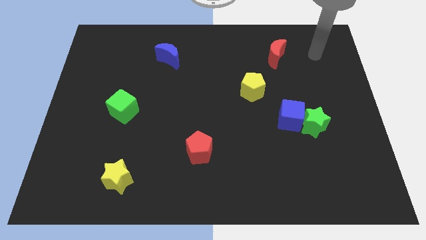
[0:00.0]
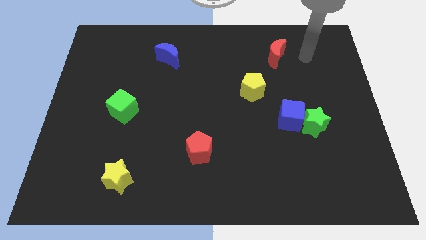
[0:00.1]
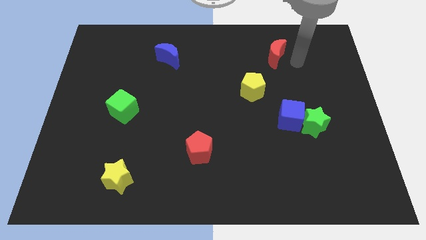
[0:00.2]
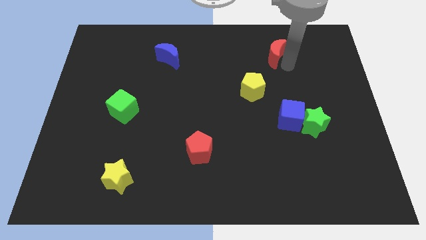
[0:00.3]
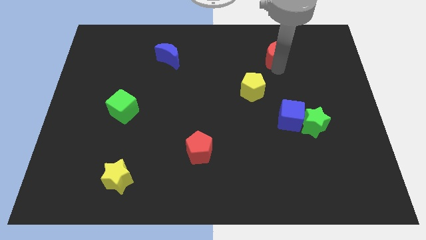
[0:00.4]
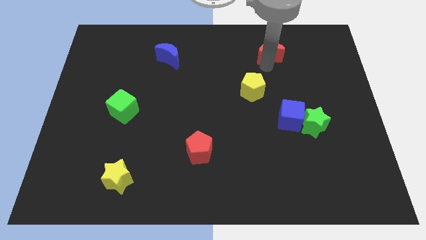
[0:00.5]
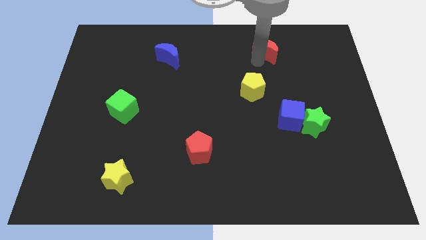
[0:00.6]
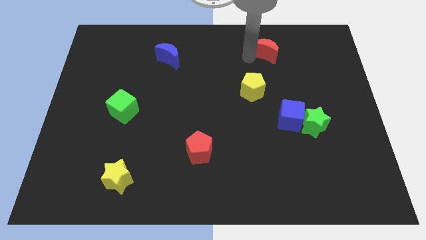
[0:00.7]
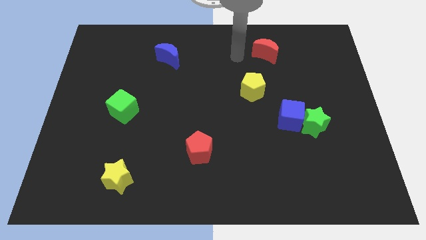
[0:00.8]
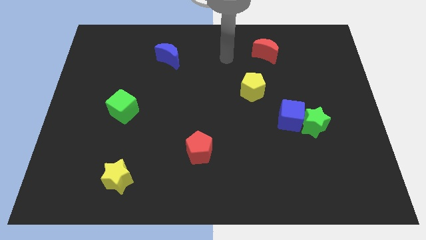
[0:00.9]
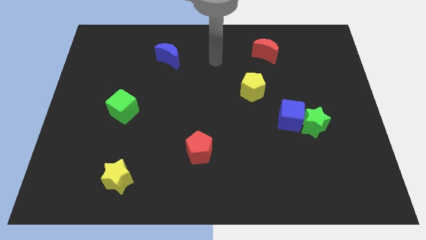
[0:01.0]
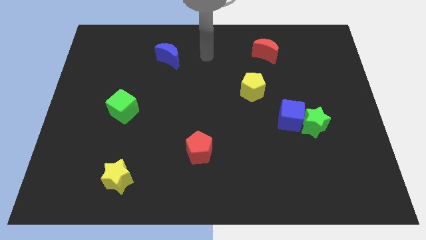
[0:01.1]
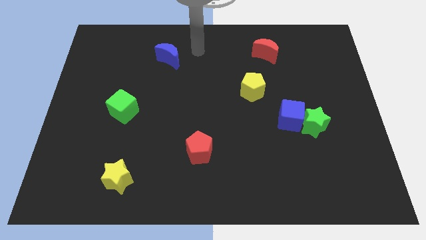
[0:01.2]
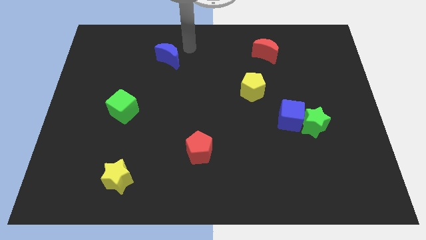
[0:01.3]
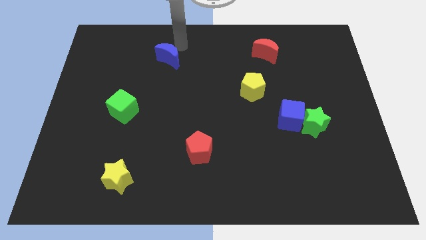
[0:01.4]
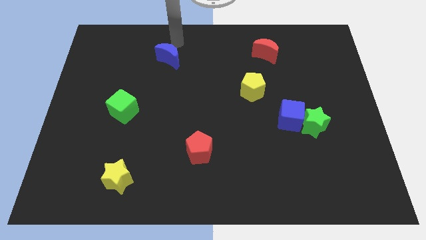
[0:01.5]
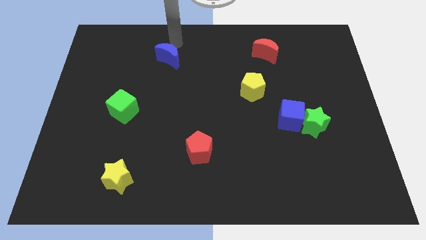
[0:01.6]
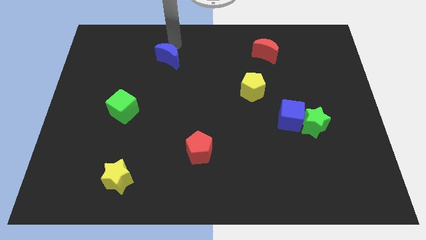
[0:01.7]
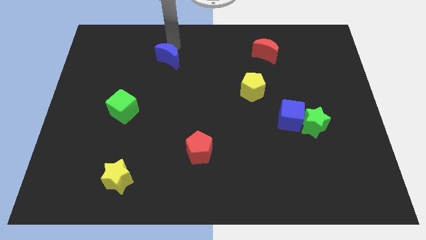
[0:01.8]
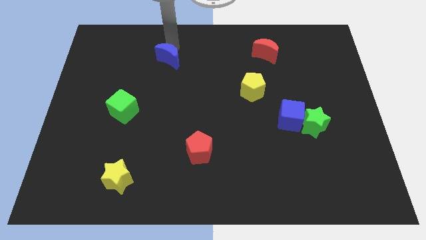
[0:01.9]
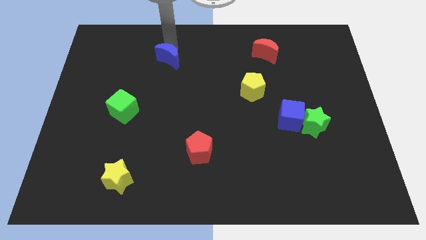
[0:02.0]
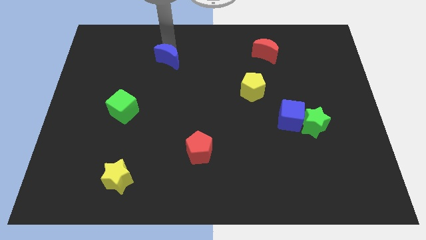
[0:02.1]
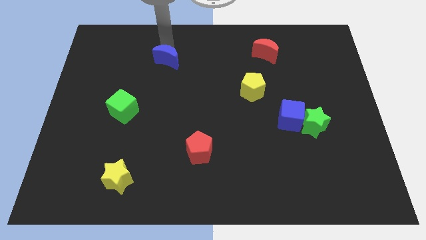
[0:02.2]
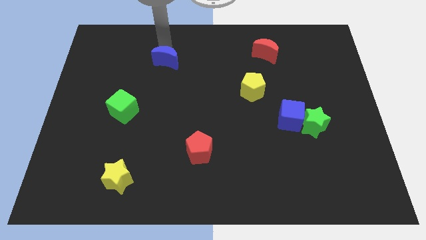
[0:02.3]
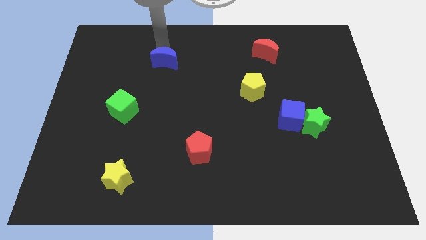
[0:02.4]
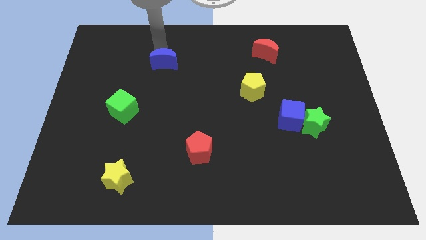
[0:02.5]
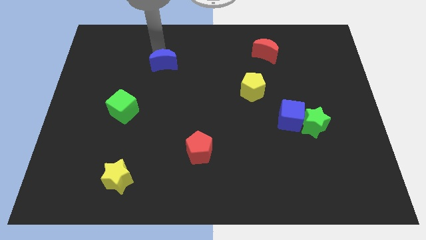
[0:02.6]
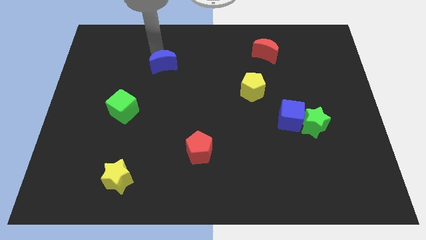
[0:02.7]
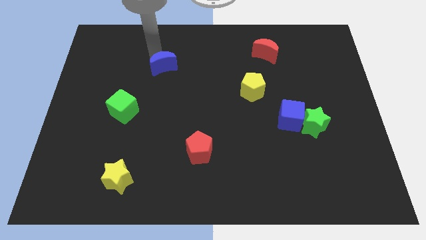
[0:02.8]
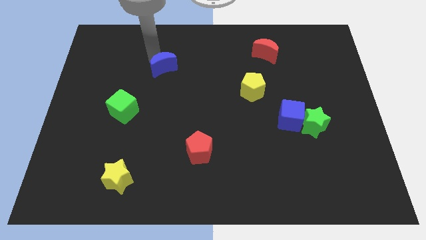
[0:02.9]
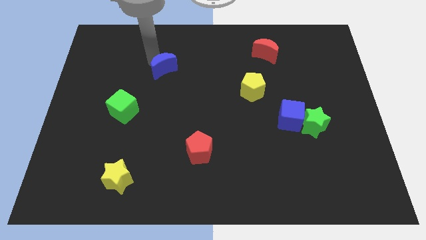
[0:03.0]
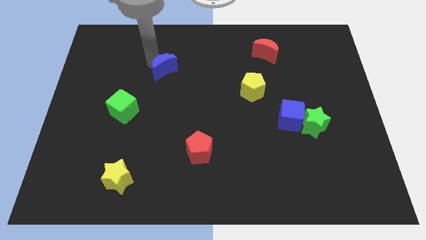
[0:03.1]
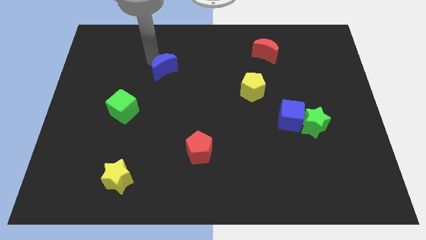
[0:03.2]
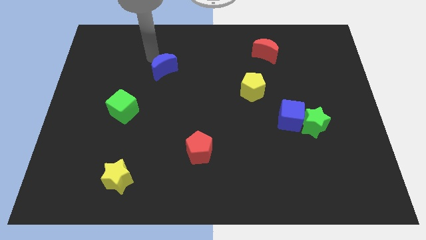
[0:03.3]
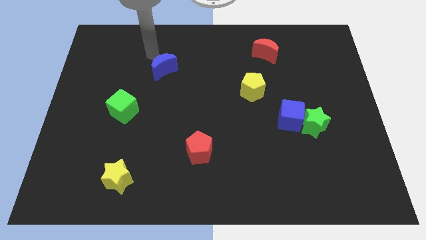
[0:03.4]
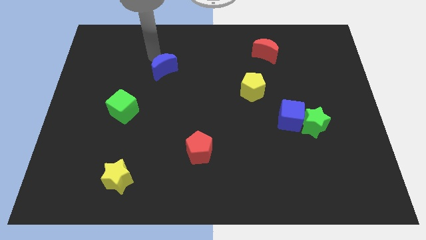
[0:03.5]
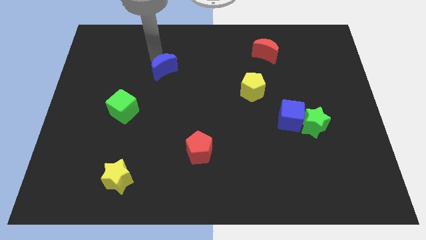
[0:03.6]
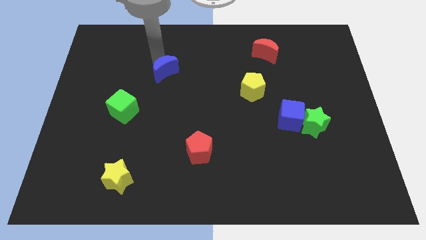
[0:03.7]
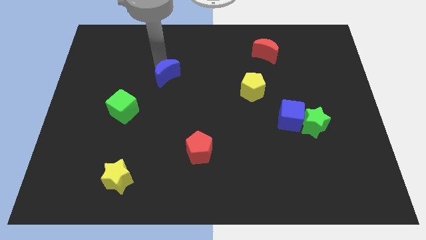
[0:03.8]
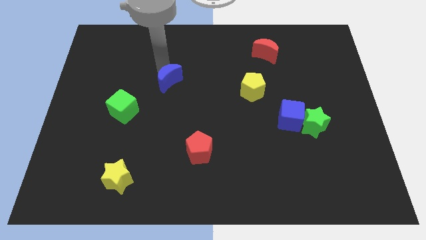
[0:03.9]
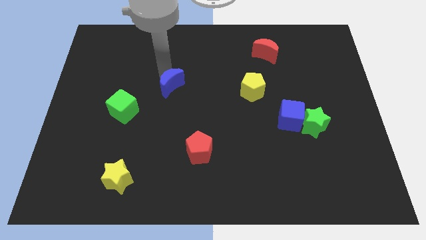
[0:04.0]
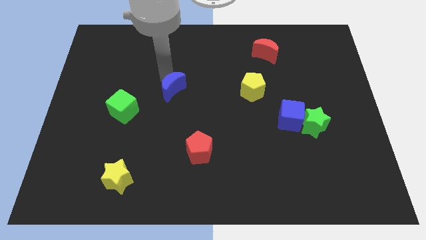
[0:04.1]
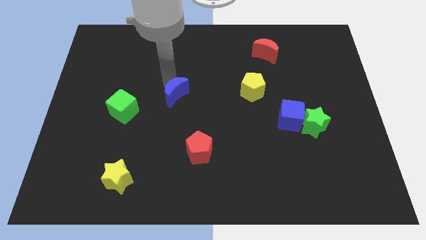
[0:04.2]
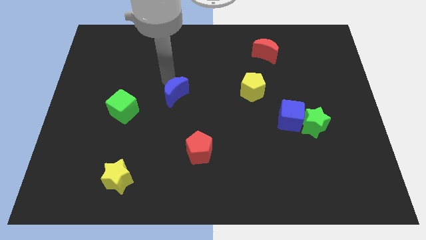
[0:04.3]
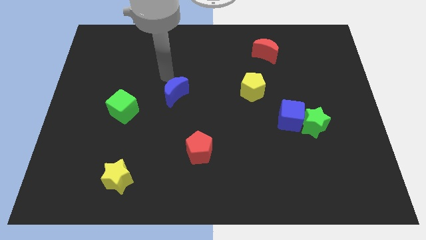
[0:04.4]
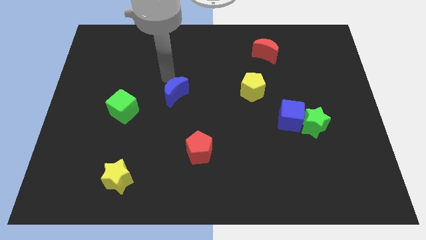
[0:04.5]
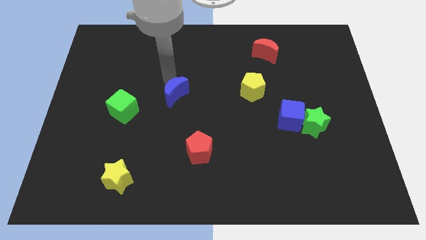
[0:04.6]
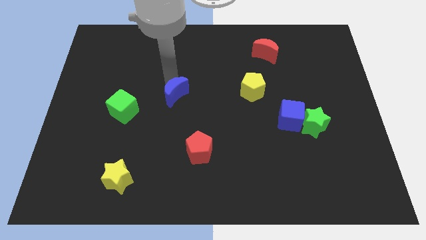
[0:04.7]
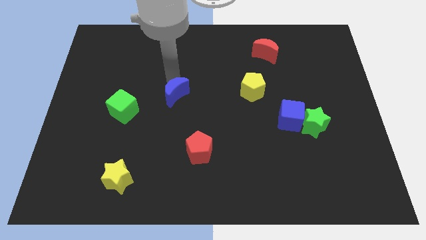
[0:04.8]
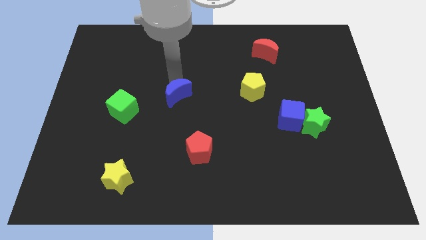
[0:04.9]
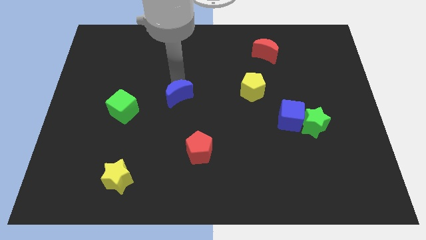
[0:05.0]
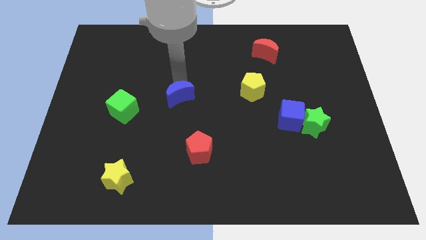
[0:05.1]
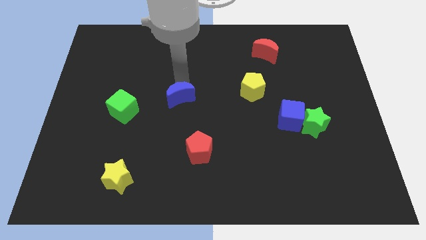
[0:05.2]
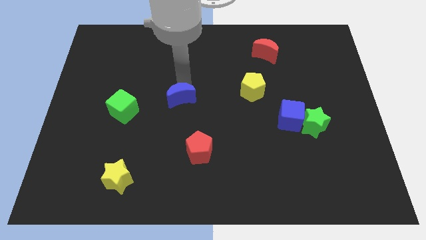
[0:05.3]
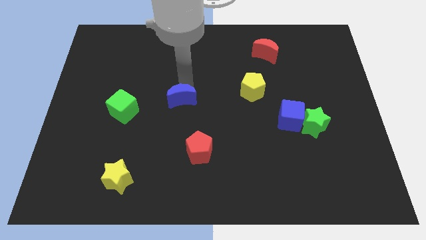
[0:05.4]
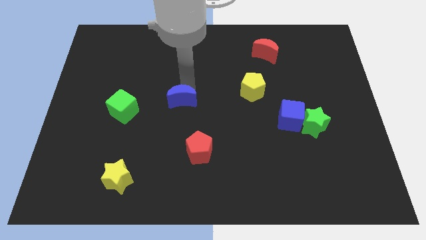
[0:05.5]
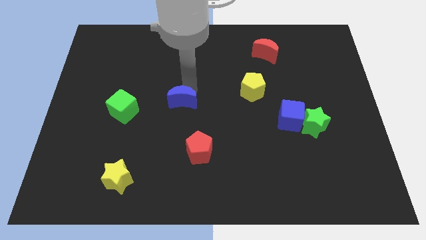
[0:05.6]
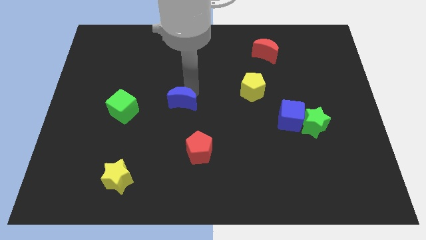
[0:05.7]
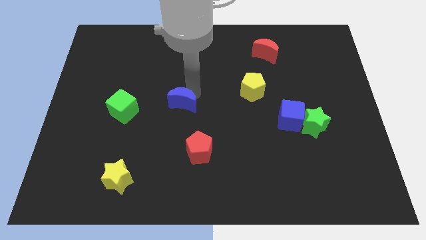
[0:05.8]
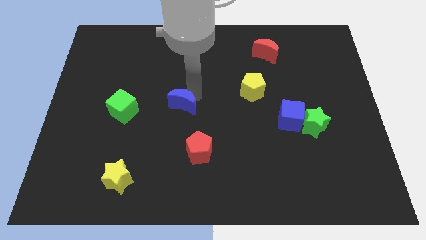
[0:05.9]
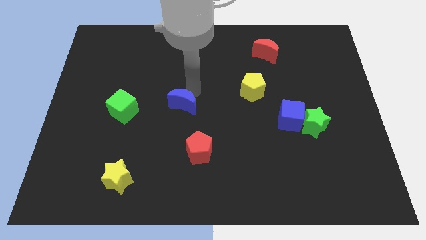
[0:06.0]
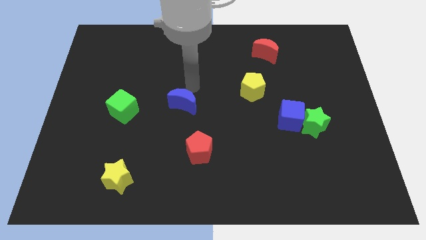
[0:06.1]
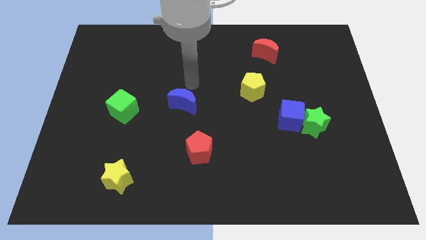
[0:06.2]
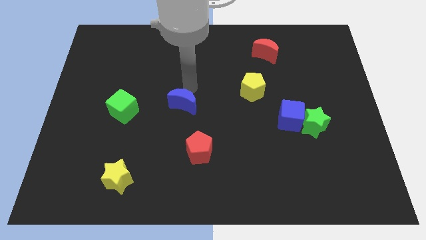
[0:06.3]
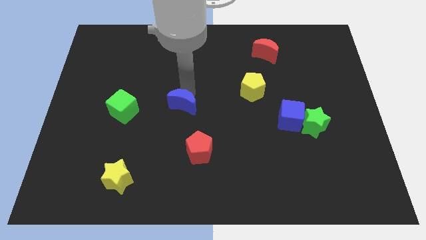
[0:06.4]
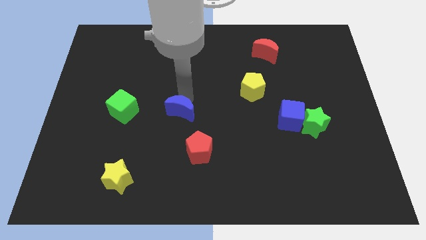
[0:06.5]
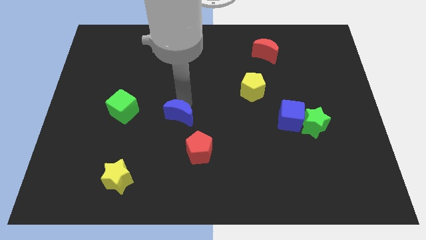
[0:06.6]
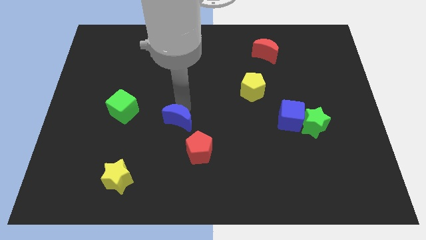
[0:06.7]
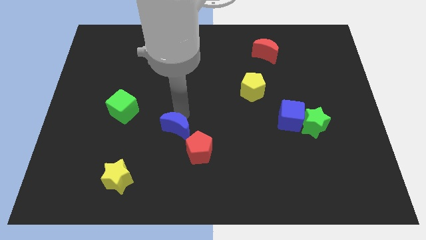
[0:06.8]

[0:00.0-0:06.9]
slide the blue moon down

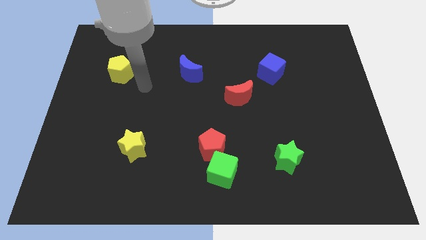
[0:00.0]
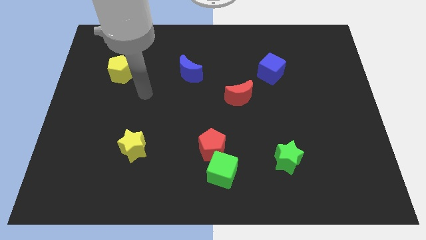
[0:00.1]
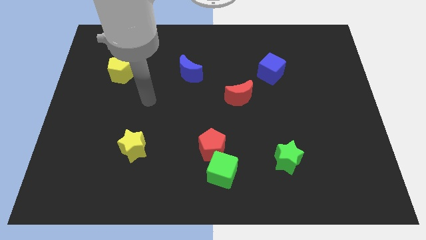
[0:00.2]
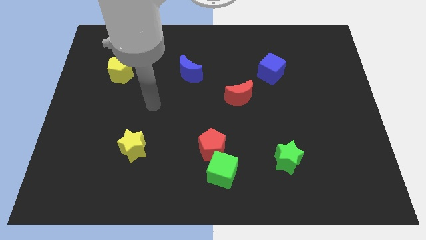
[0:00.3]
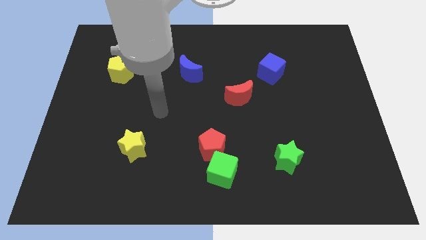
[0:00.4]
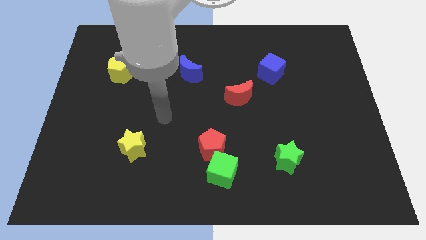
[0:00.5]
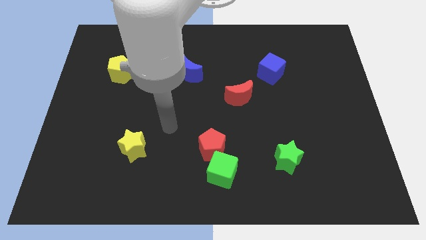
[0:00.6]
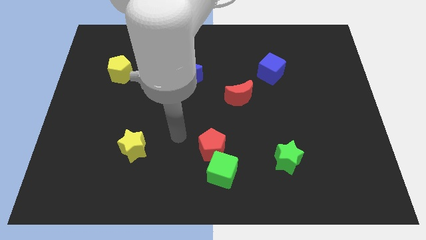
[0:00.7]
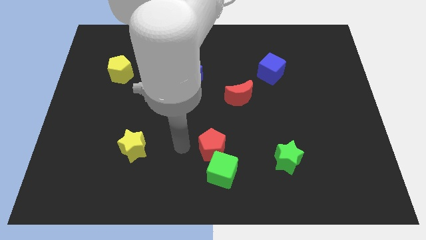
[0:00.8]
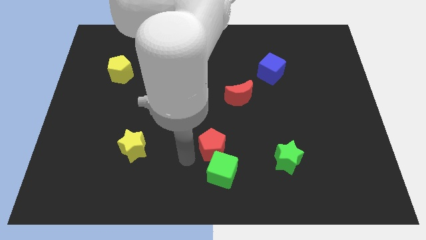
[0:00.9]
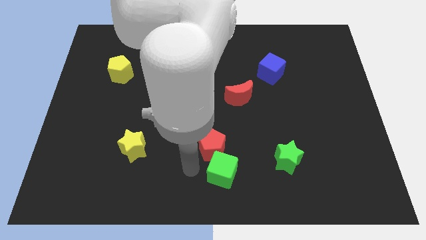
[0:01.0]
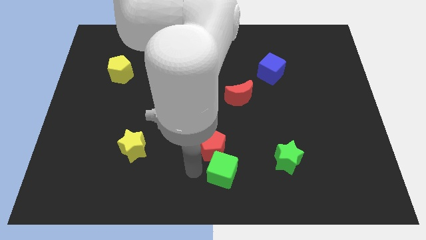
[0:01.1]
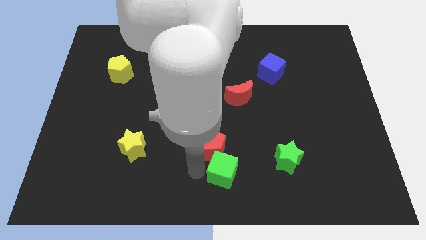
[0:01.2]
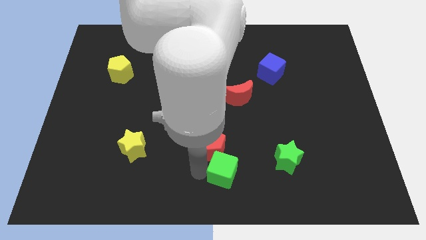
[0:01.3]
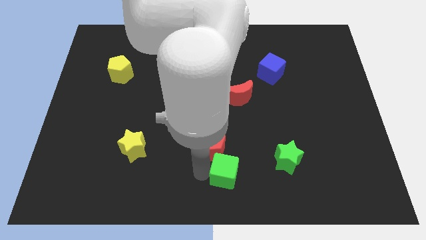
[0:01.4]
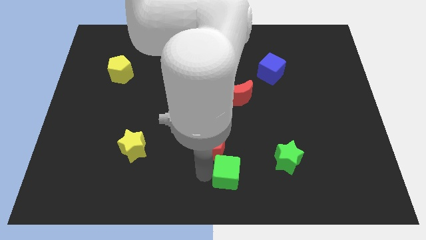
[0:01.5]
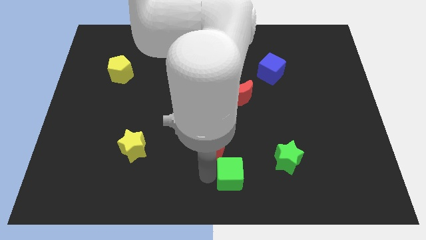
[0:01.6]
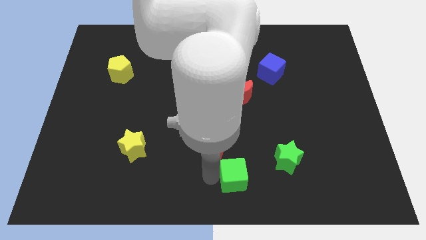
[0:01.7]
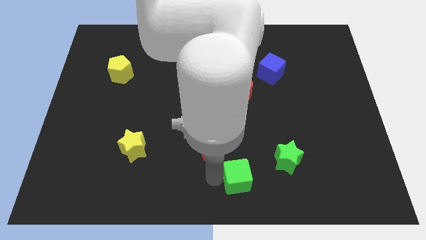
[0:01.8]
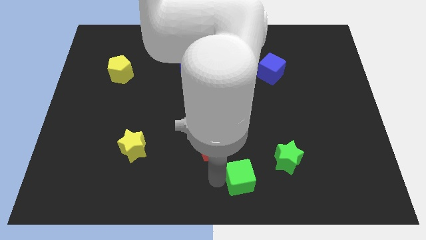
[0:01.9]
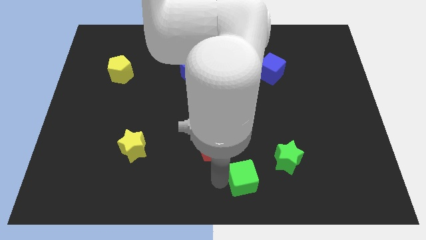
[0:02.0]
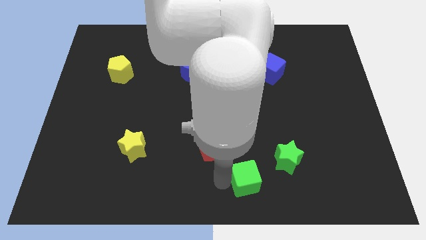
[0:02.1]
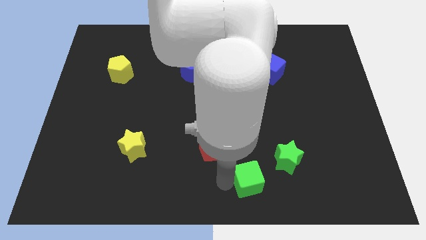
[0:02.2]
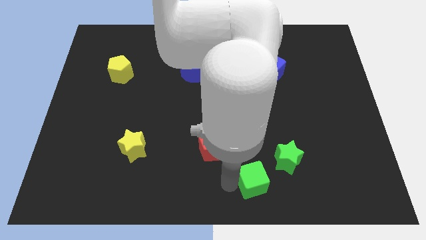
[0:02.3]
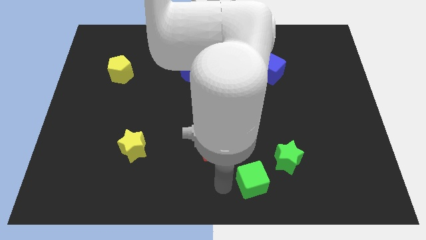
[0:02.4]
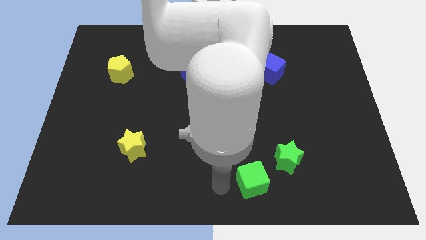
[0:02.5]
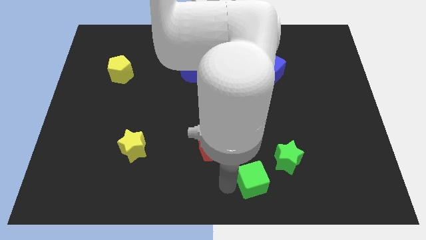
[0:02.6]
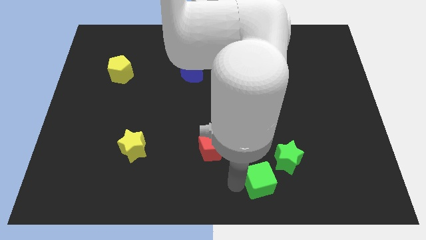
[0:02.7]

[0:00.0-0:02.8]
move the green cube right a little bit
